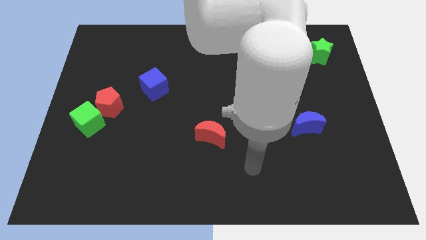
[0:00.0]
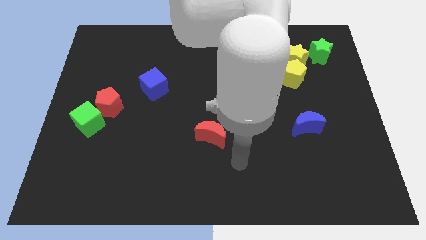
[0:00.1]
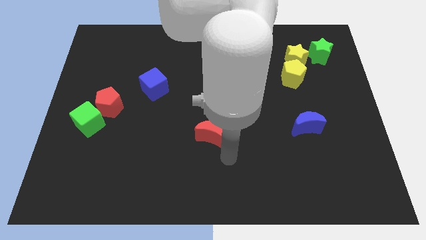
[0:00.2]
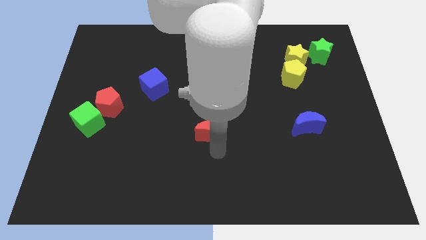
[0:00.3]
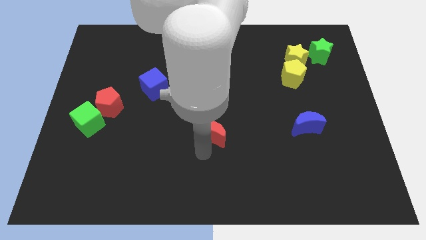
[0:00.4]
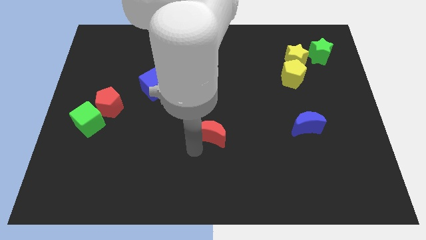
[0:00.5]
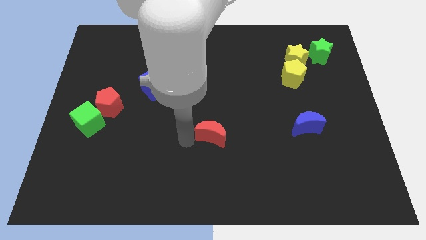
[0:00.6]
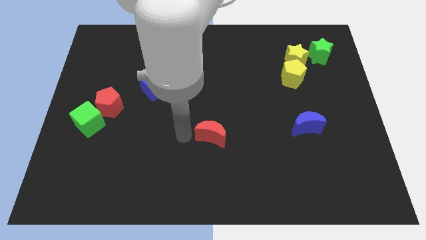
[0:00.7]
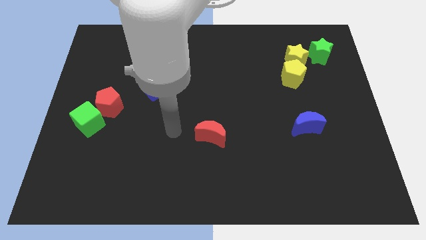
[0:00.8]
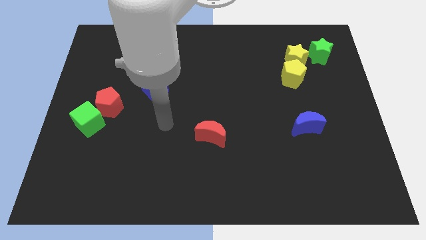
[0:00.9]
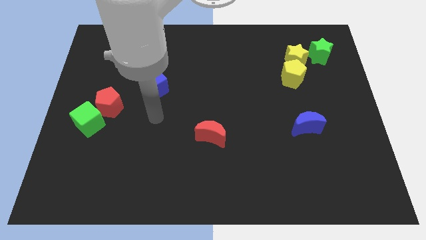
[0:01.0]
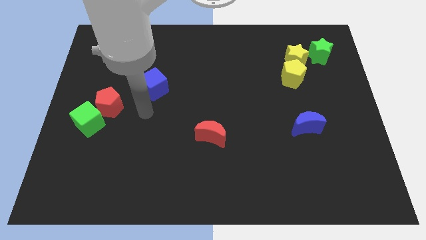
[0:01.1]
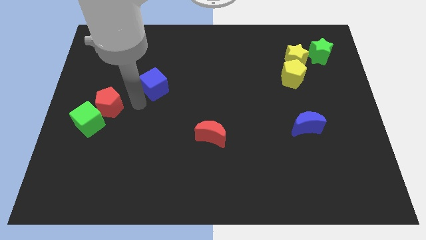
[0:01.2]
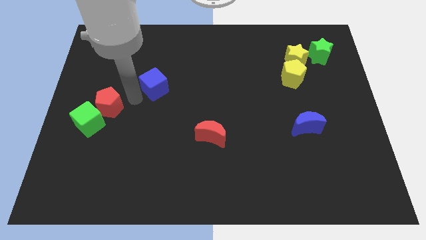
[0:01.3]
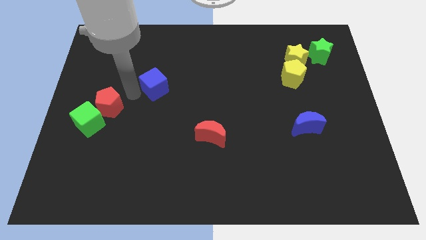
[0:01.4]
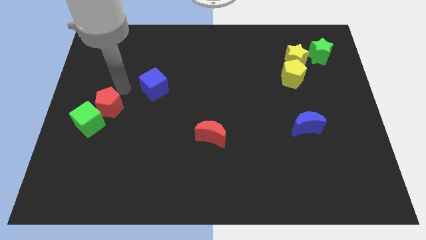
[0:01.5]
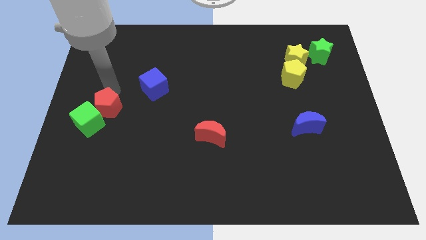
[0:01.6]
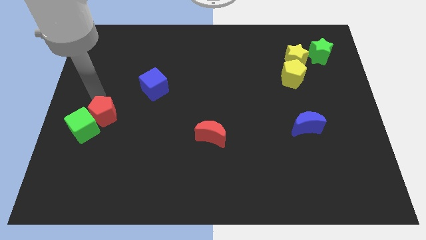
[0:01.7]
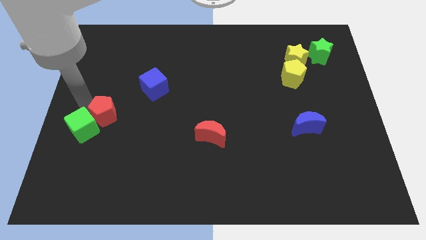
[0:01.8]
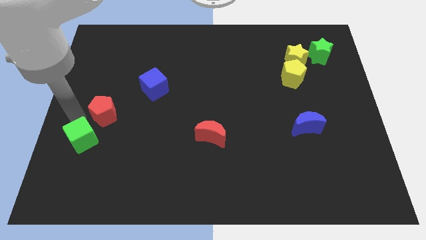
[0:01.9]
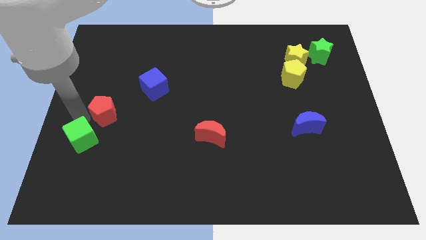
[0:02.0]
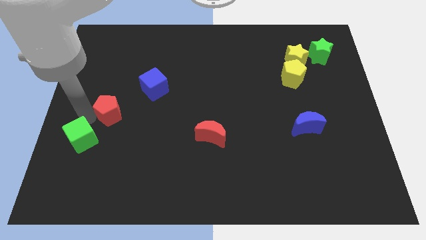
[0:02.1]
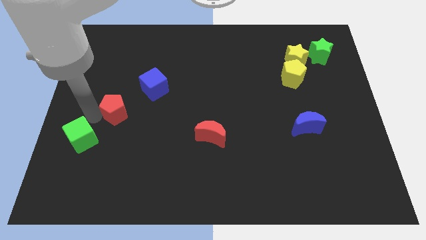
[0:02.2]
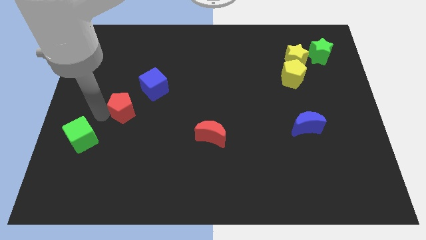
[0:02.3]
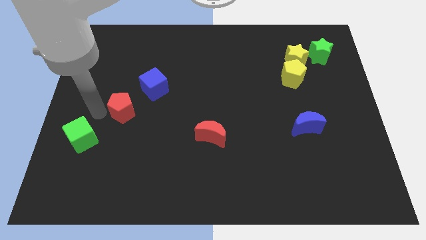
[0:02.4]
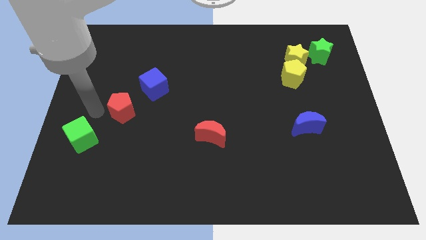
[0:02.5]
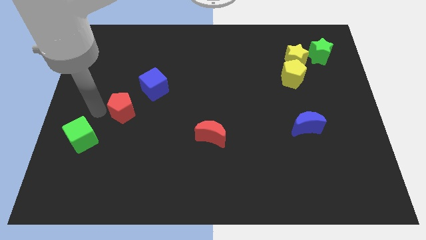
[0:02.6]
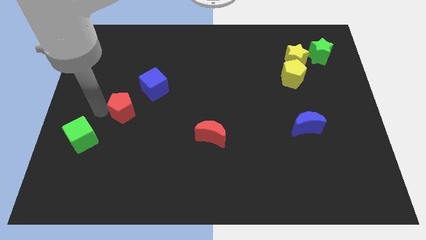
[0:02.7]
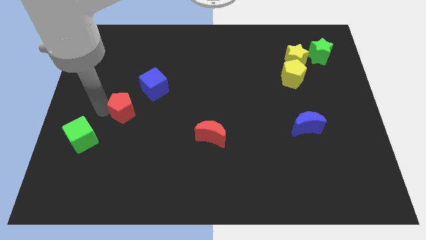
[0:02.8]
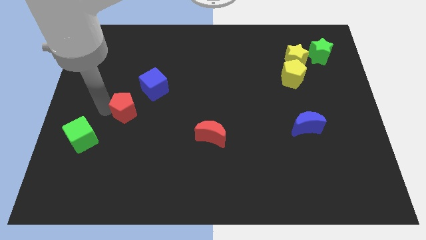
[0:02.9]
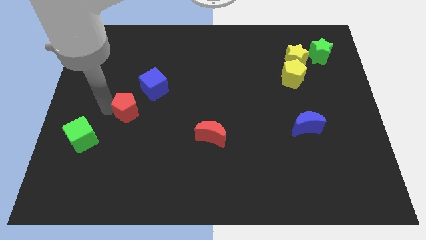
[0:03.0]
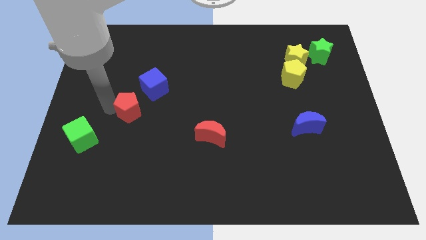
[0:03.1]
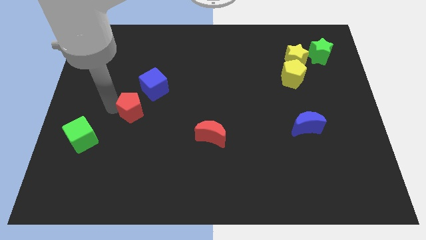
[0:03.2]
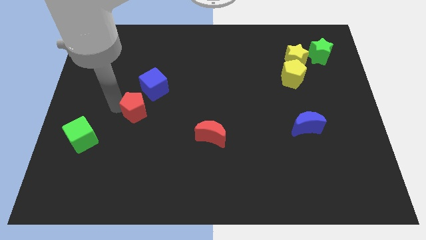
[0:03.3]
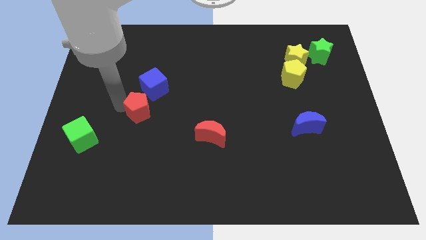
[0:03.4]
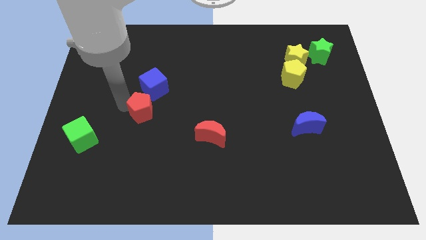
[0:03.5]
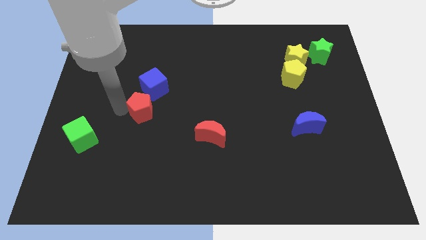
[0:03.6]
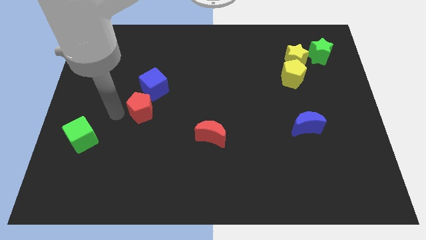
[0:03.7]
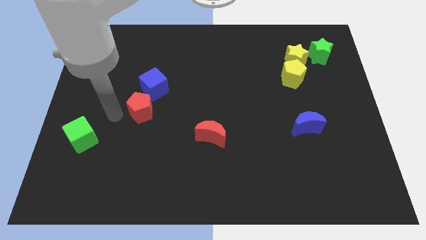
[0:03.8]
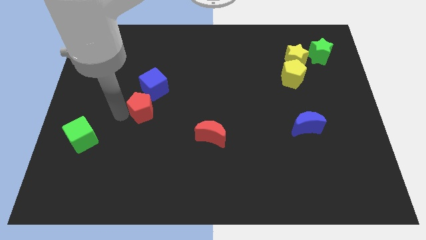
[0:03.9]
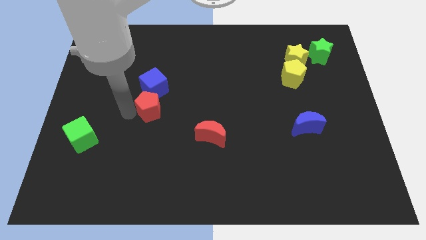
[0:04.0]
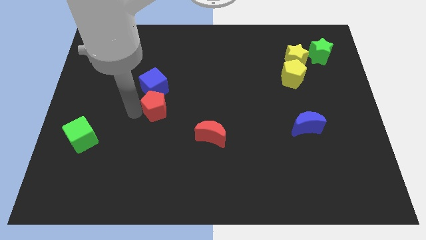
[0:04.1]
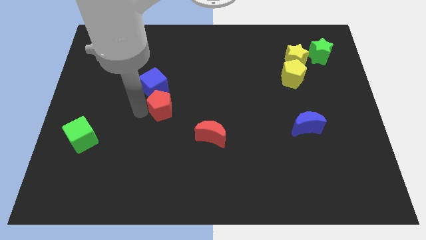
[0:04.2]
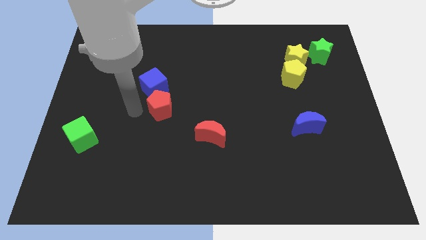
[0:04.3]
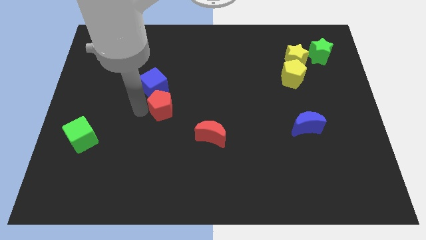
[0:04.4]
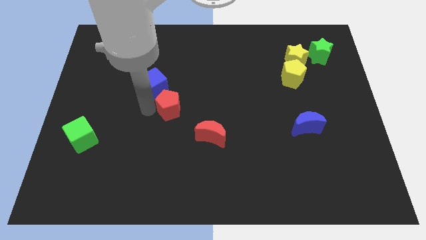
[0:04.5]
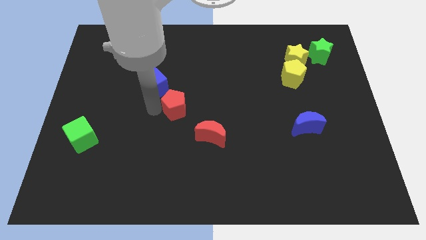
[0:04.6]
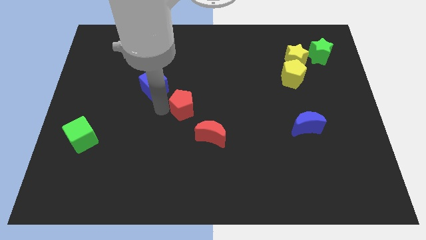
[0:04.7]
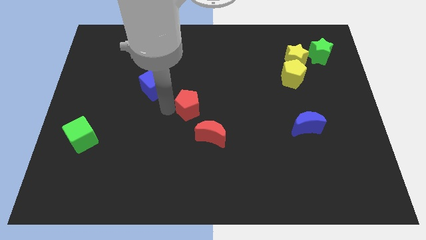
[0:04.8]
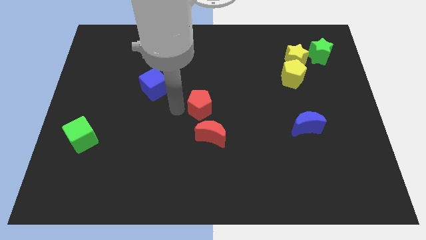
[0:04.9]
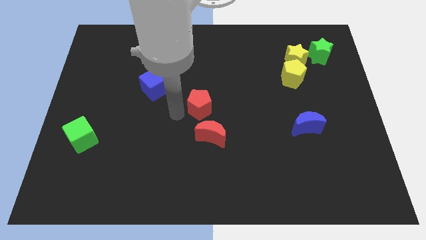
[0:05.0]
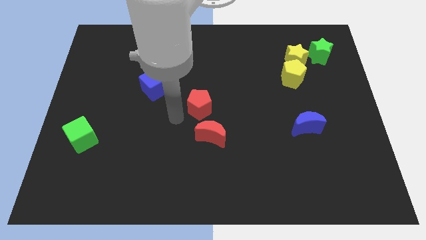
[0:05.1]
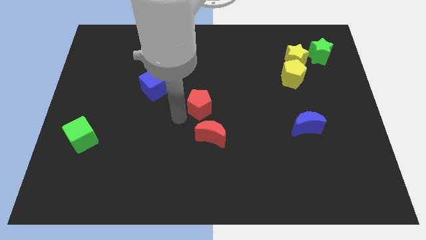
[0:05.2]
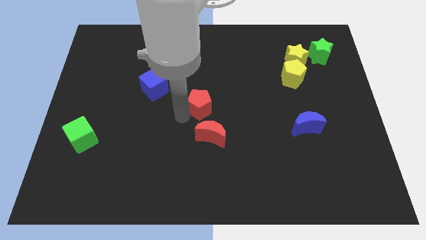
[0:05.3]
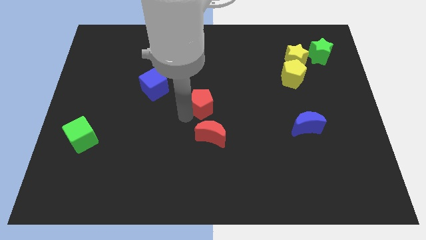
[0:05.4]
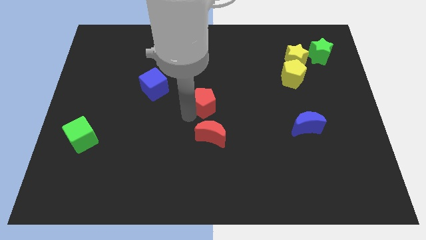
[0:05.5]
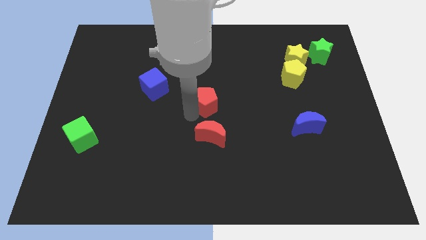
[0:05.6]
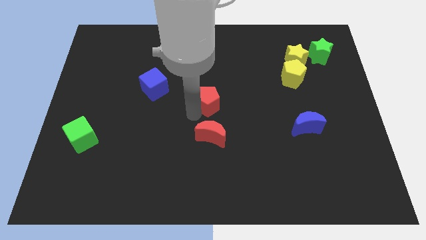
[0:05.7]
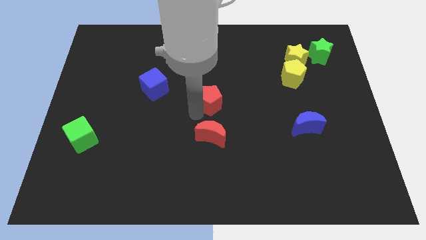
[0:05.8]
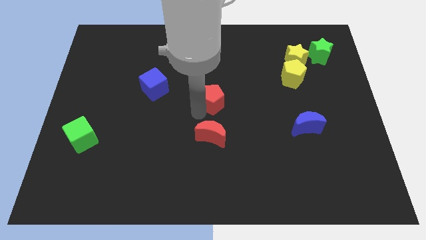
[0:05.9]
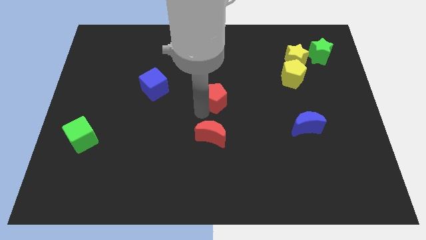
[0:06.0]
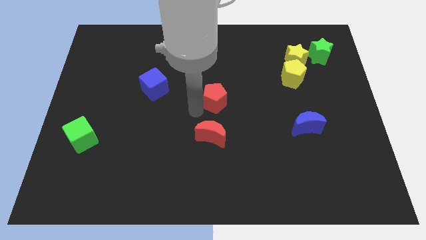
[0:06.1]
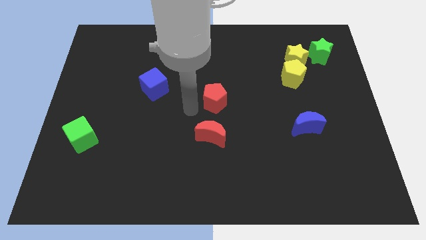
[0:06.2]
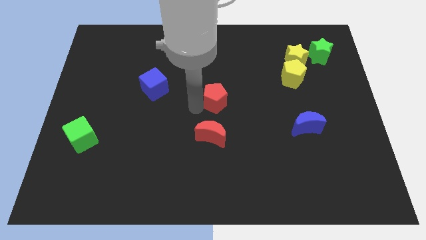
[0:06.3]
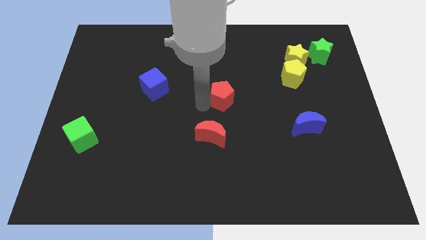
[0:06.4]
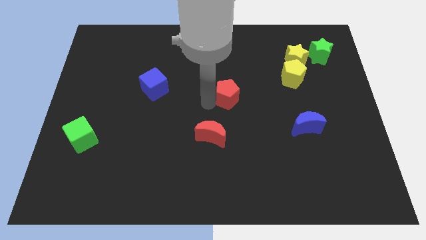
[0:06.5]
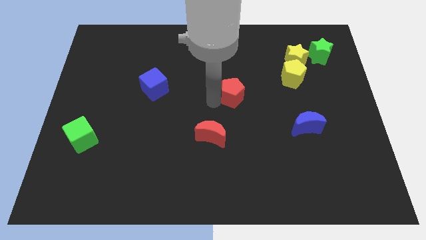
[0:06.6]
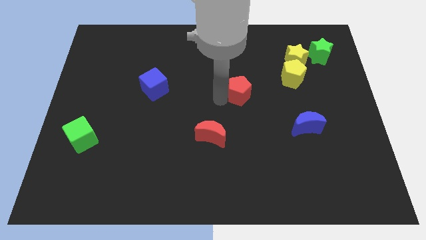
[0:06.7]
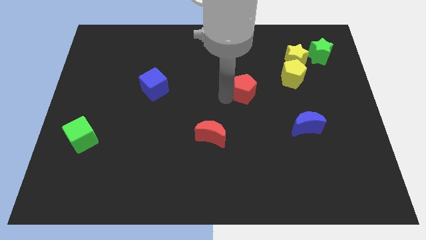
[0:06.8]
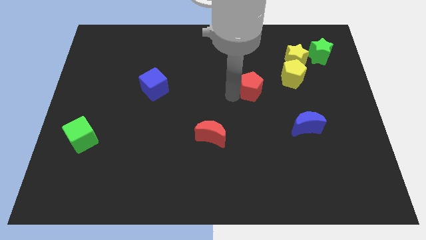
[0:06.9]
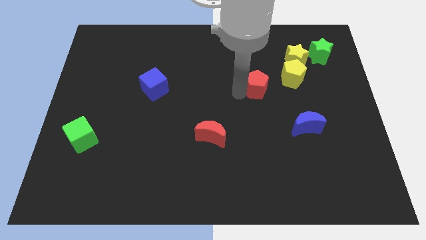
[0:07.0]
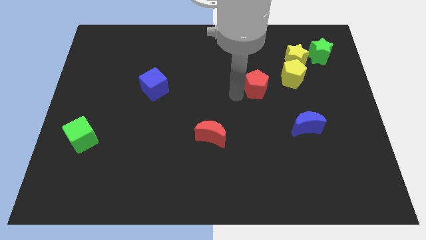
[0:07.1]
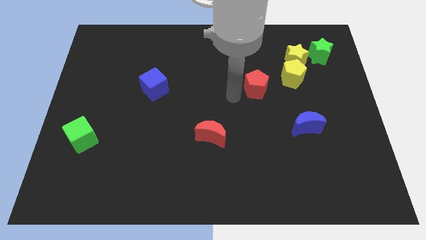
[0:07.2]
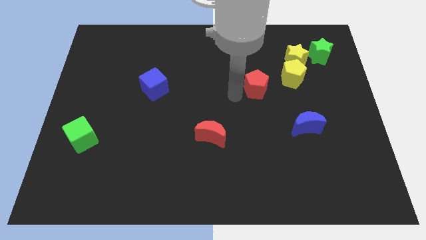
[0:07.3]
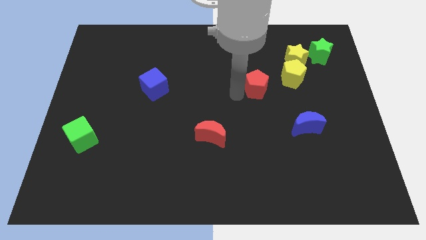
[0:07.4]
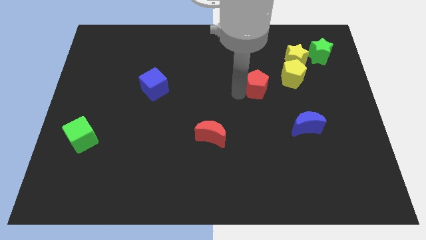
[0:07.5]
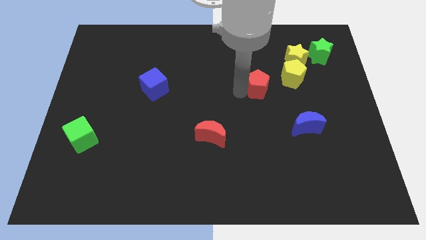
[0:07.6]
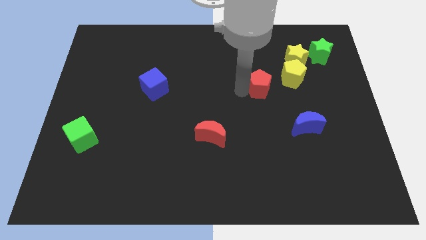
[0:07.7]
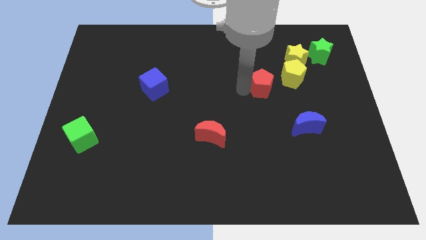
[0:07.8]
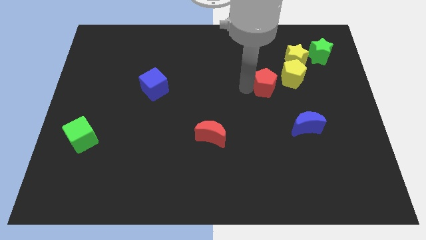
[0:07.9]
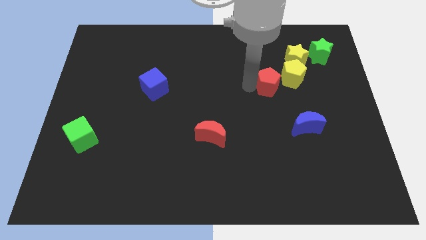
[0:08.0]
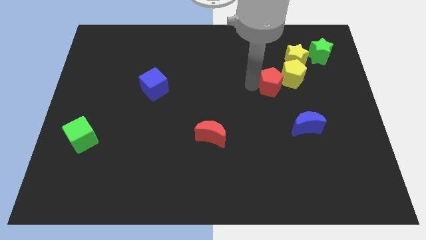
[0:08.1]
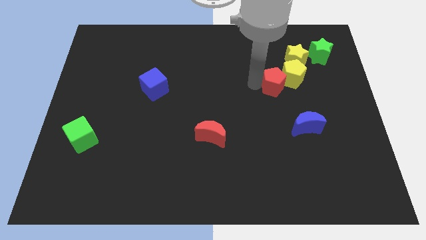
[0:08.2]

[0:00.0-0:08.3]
slide the red pentagon towards the yellow pentagon
